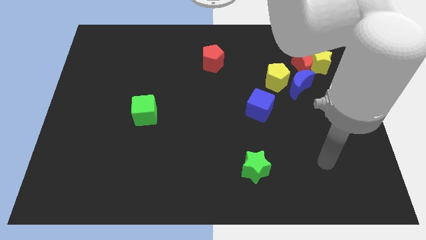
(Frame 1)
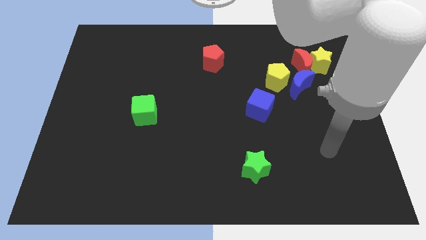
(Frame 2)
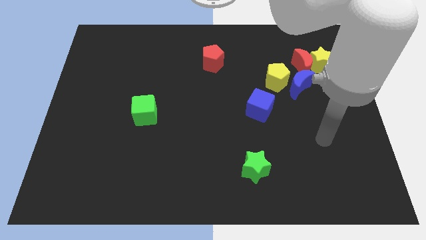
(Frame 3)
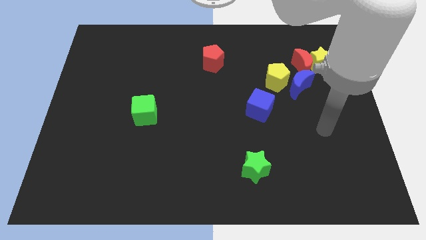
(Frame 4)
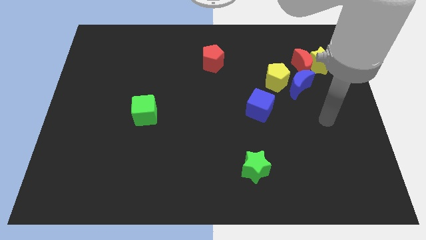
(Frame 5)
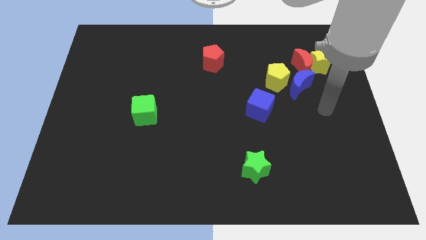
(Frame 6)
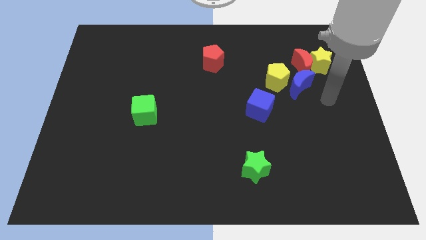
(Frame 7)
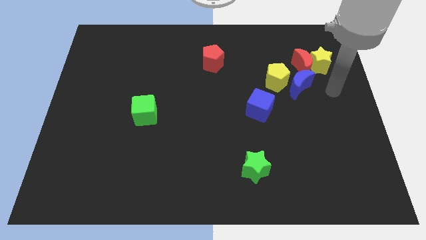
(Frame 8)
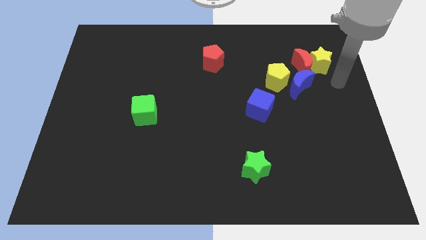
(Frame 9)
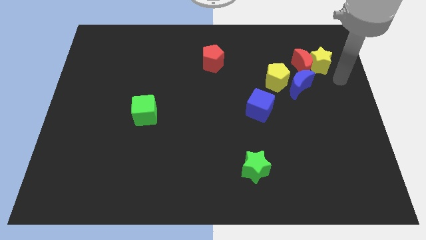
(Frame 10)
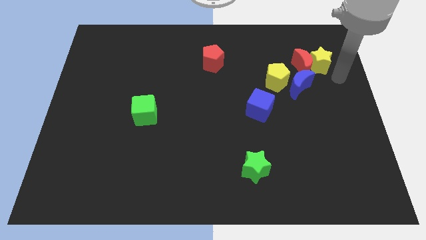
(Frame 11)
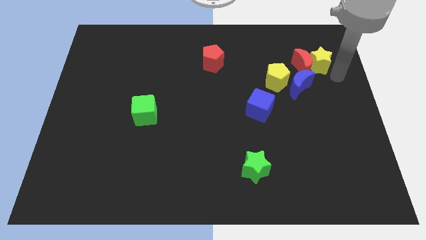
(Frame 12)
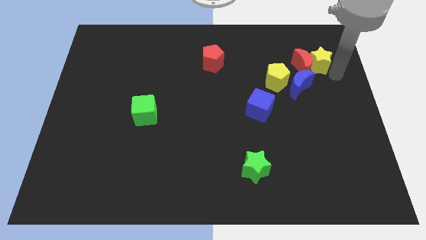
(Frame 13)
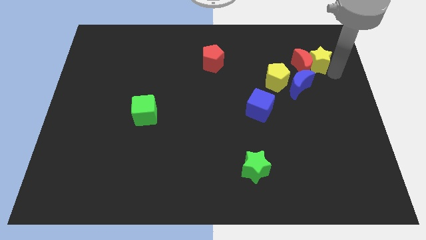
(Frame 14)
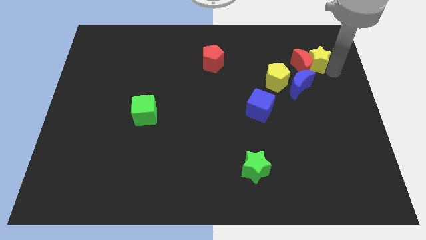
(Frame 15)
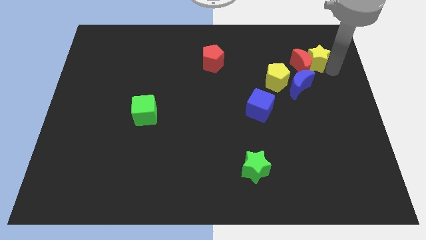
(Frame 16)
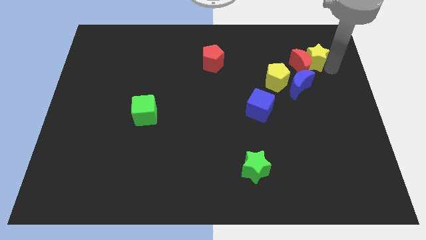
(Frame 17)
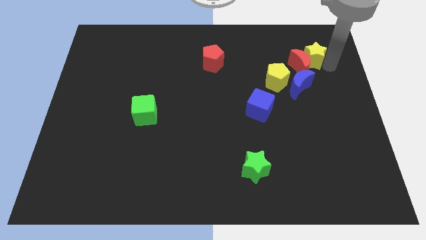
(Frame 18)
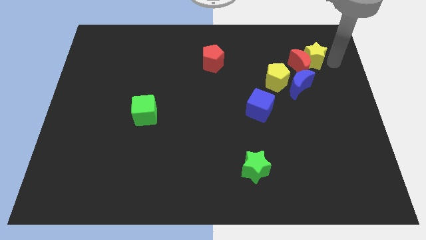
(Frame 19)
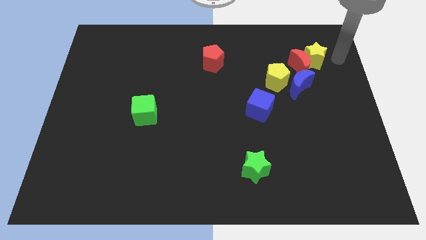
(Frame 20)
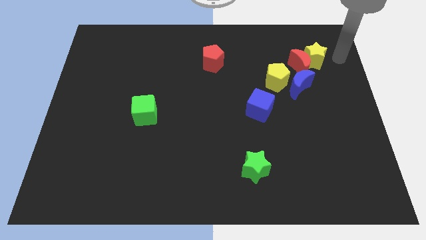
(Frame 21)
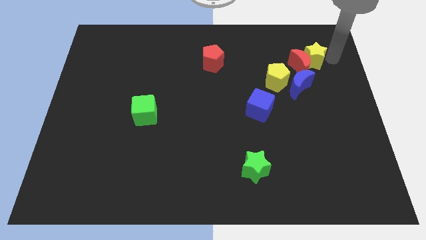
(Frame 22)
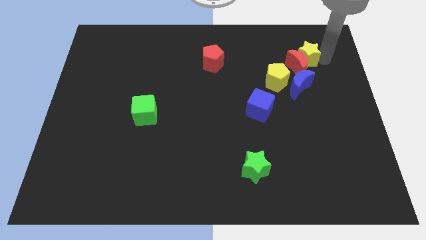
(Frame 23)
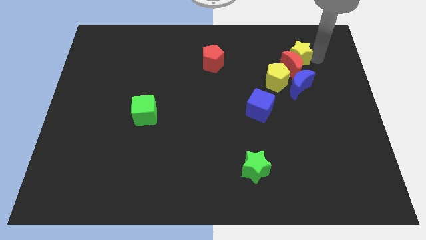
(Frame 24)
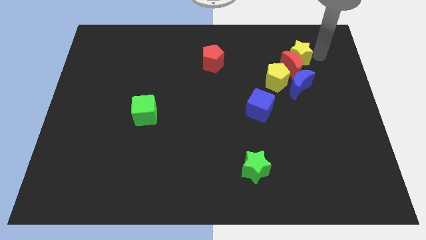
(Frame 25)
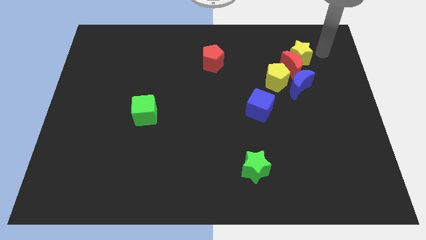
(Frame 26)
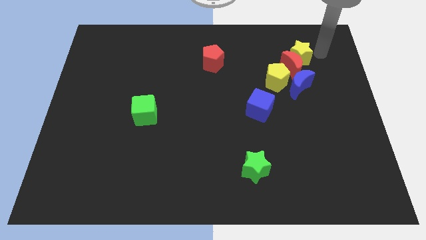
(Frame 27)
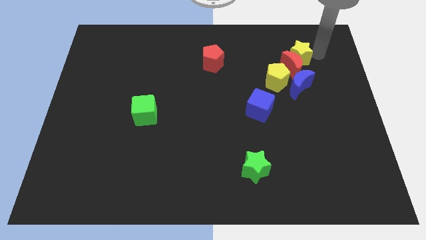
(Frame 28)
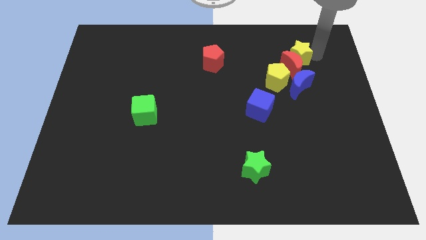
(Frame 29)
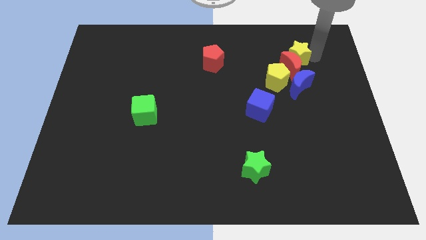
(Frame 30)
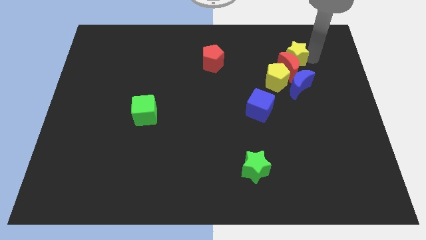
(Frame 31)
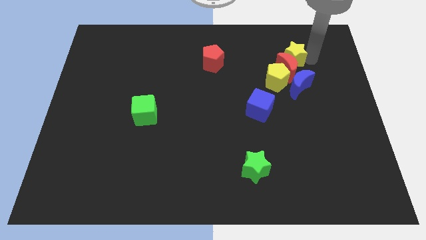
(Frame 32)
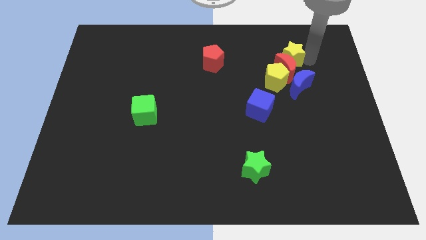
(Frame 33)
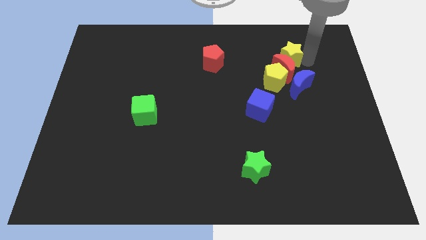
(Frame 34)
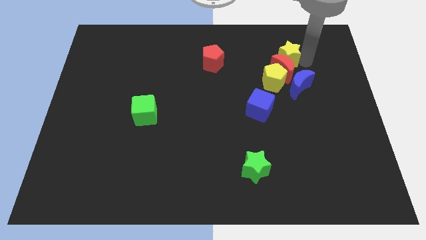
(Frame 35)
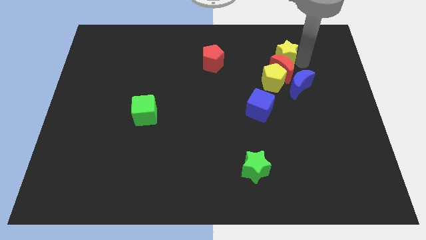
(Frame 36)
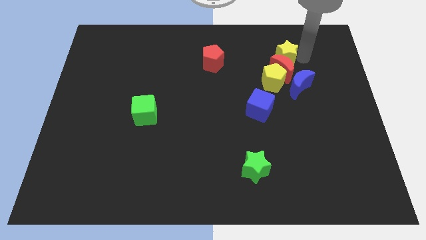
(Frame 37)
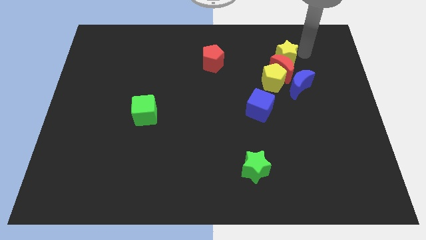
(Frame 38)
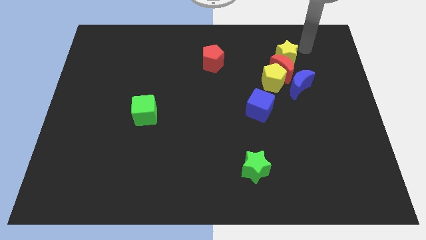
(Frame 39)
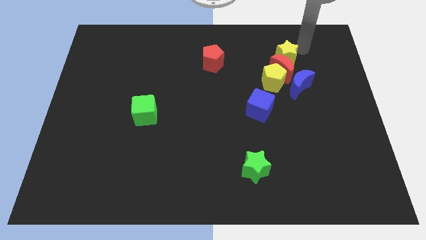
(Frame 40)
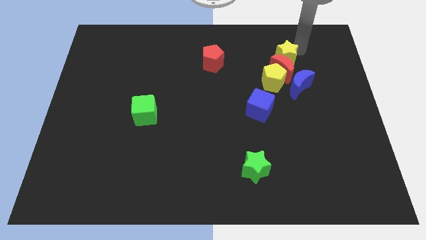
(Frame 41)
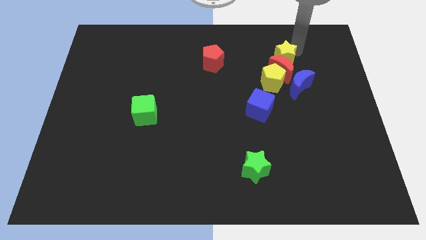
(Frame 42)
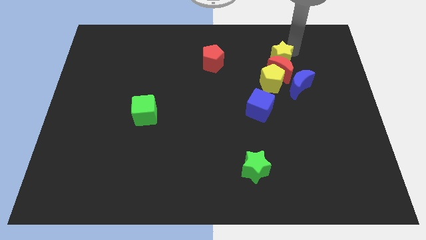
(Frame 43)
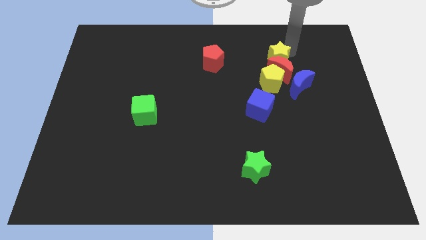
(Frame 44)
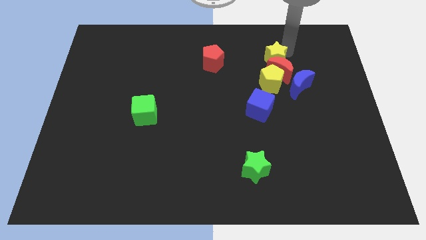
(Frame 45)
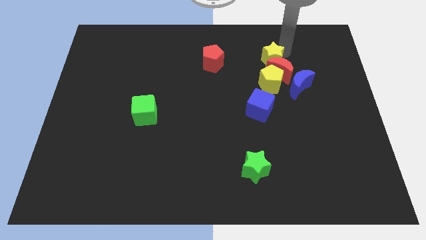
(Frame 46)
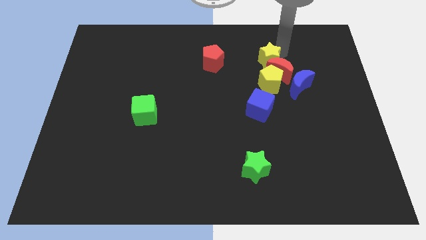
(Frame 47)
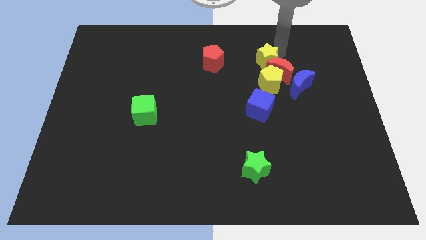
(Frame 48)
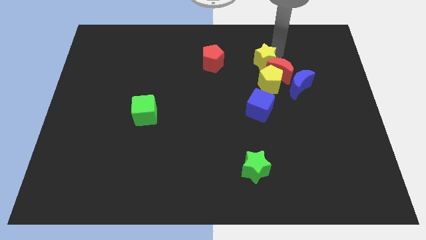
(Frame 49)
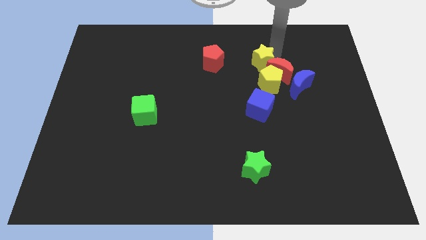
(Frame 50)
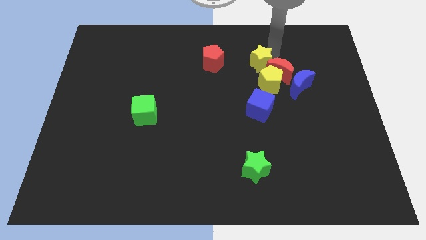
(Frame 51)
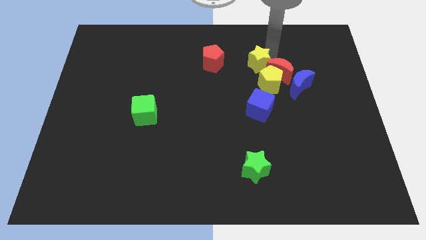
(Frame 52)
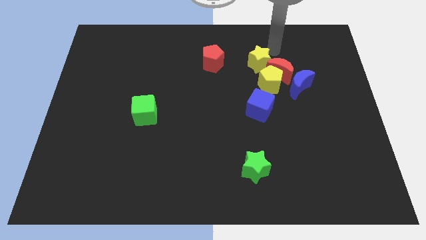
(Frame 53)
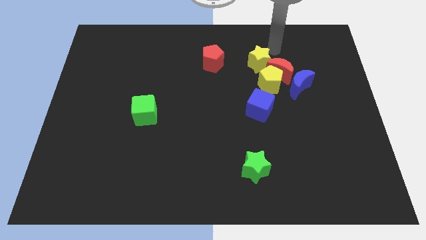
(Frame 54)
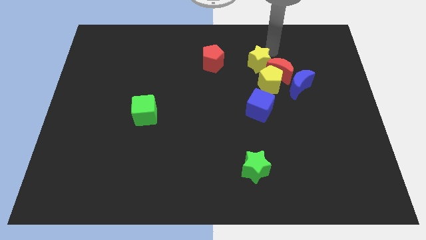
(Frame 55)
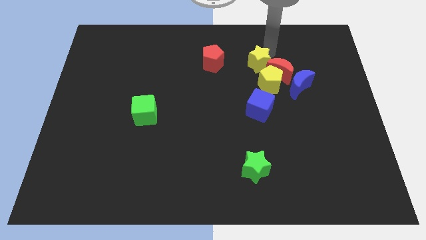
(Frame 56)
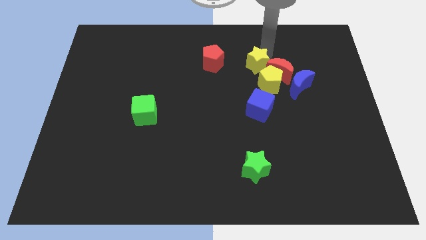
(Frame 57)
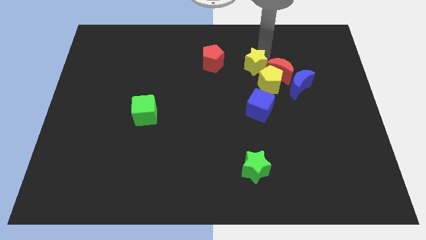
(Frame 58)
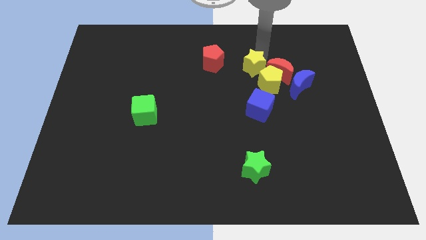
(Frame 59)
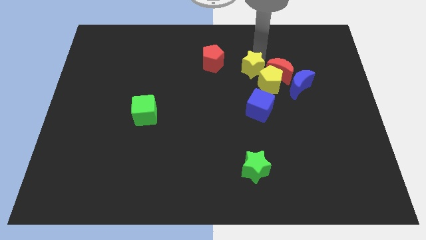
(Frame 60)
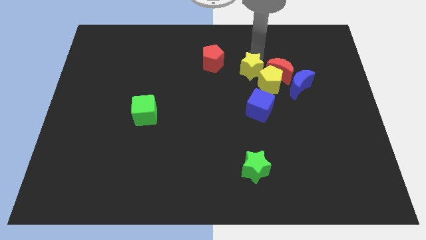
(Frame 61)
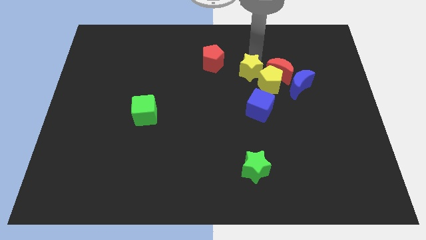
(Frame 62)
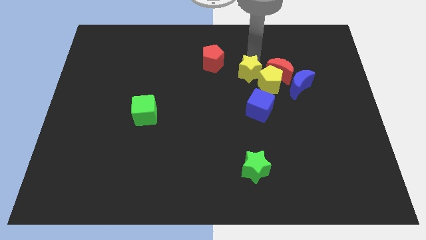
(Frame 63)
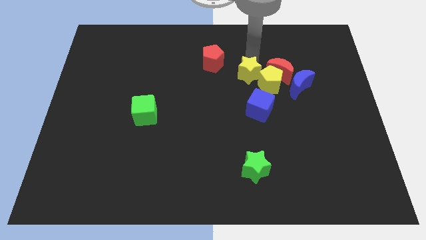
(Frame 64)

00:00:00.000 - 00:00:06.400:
put the yellow star to the middle

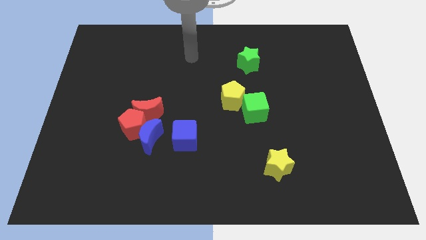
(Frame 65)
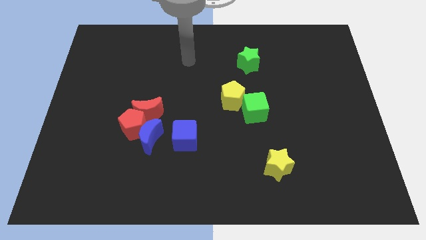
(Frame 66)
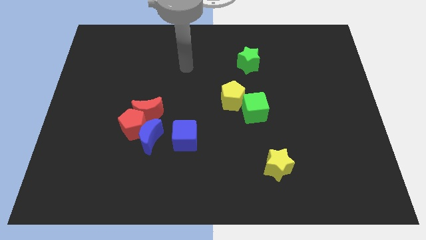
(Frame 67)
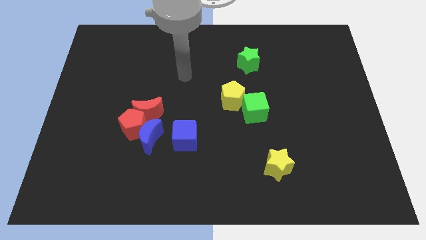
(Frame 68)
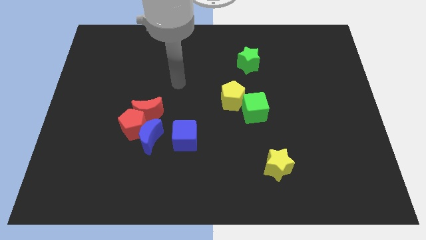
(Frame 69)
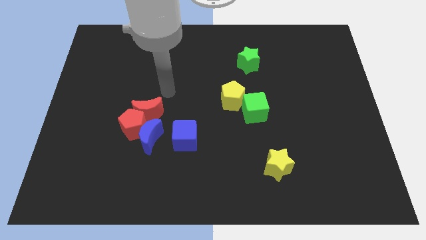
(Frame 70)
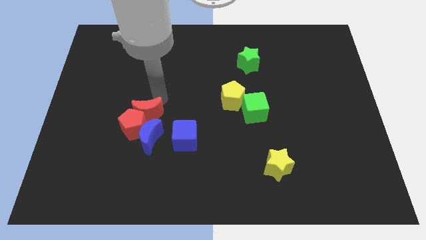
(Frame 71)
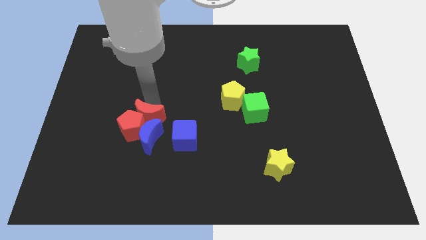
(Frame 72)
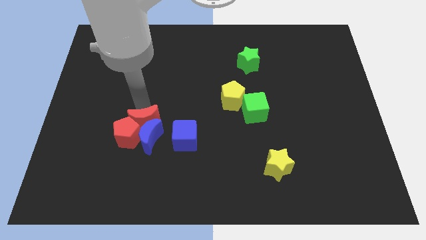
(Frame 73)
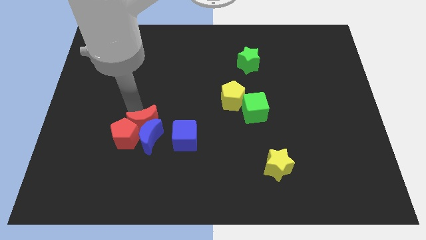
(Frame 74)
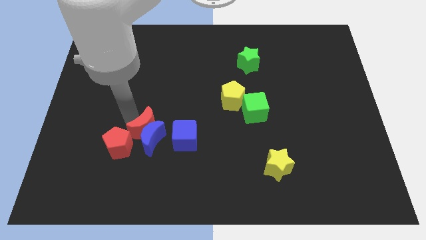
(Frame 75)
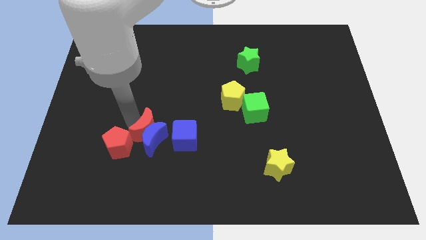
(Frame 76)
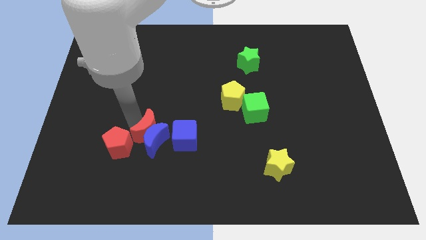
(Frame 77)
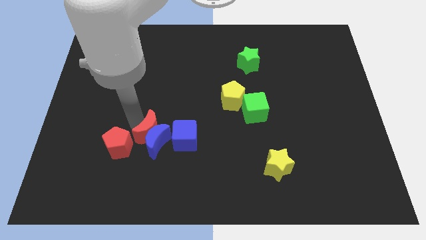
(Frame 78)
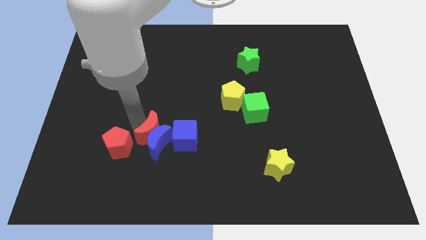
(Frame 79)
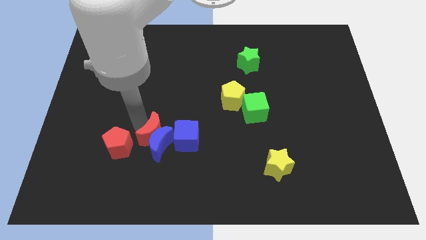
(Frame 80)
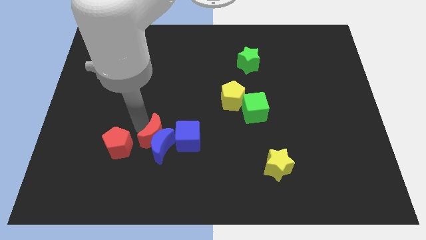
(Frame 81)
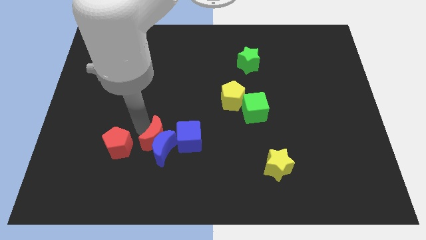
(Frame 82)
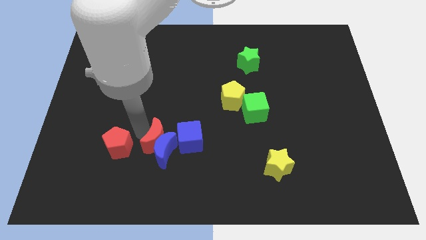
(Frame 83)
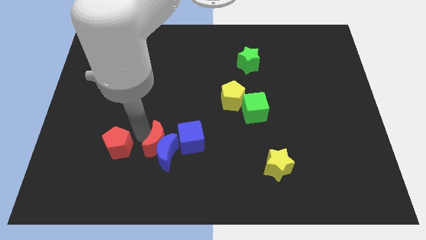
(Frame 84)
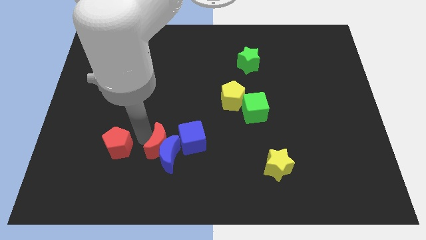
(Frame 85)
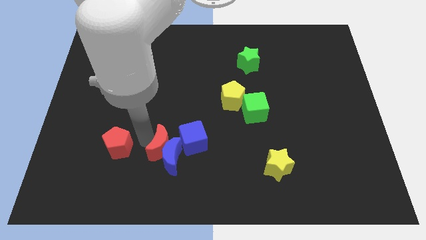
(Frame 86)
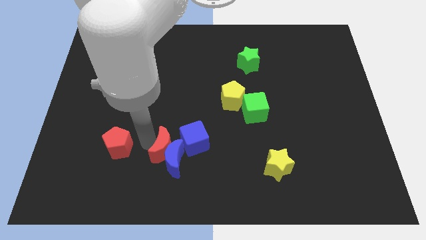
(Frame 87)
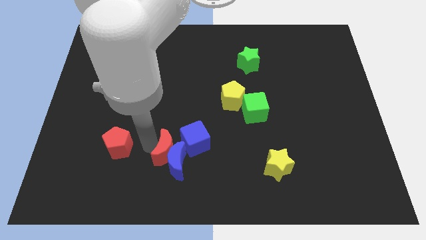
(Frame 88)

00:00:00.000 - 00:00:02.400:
put the blue moon to the bottom
